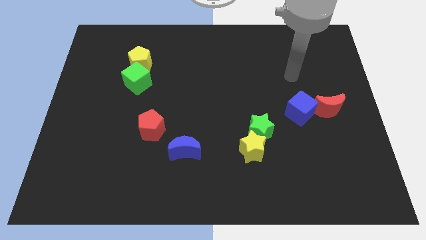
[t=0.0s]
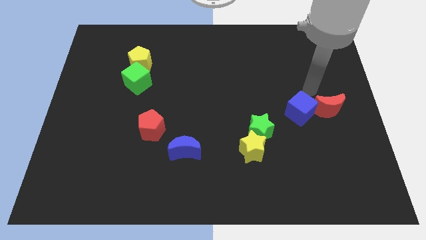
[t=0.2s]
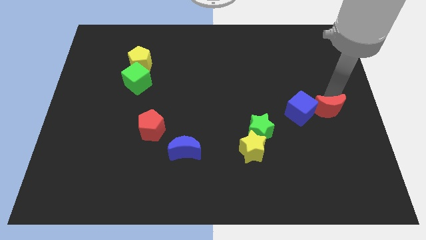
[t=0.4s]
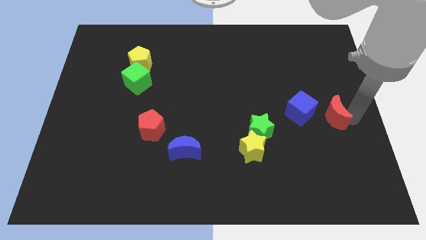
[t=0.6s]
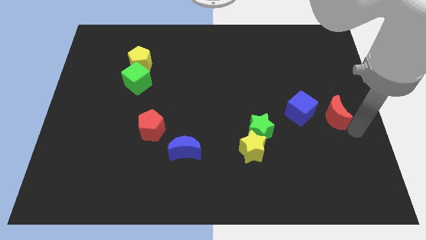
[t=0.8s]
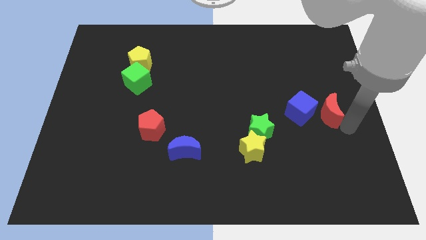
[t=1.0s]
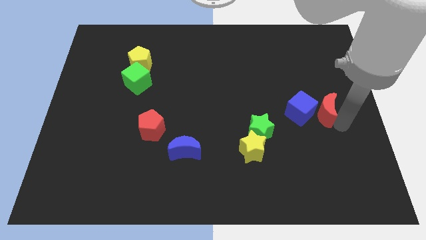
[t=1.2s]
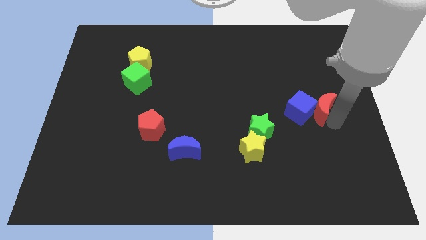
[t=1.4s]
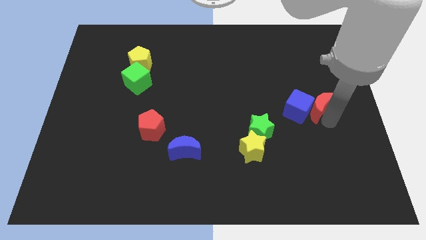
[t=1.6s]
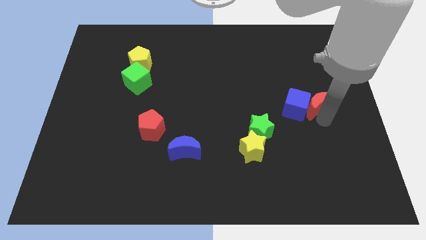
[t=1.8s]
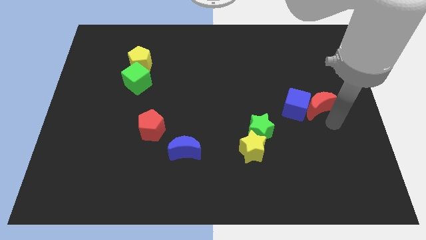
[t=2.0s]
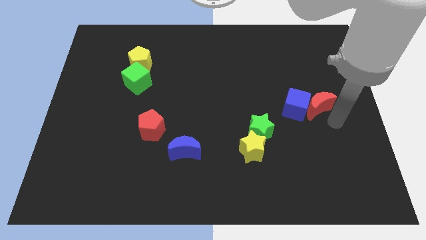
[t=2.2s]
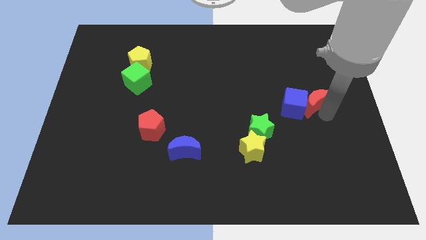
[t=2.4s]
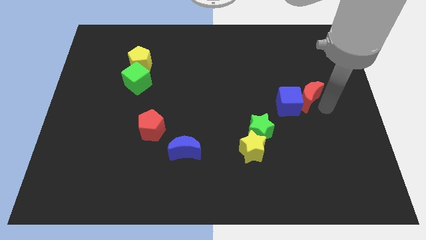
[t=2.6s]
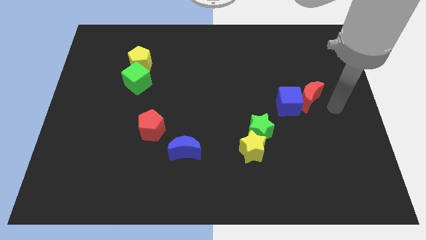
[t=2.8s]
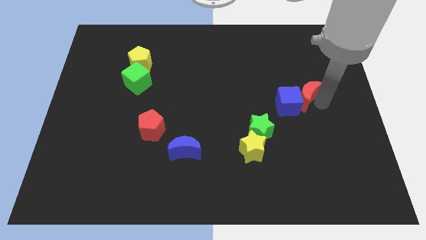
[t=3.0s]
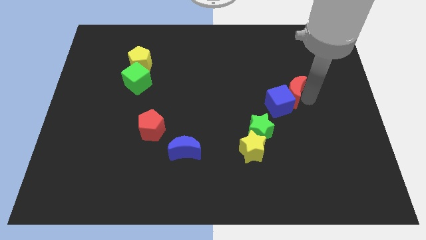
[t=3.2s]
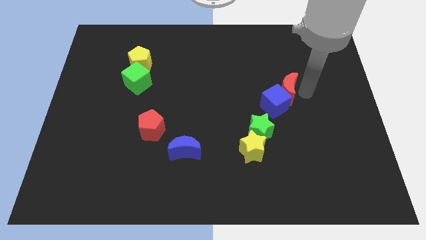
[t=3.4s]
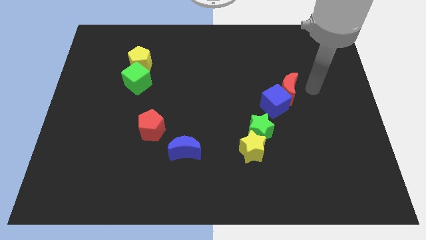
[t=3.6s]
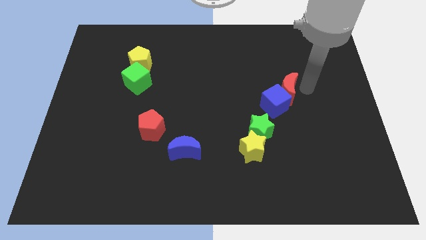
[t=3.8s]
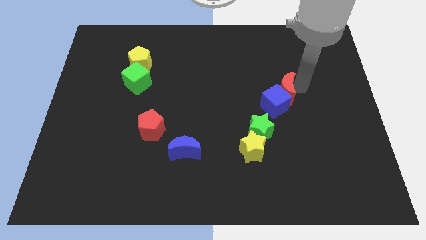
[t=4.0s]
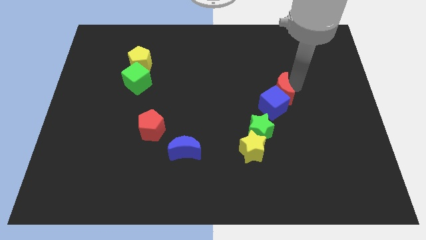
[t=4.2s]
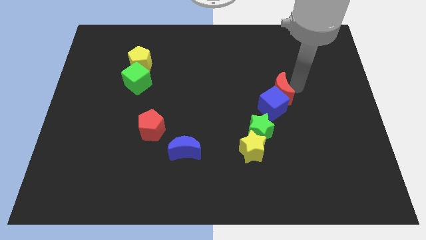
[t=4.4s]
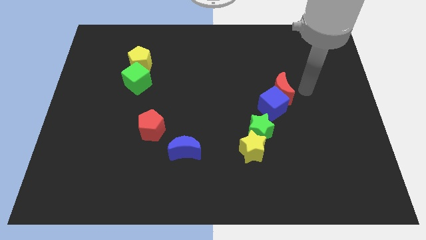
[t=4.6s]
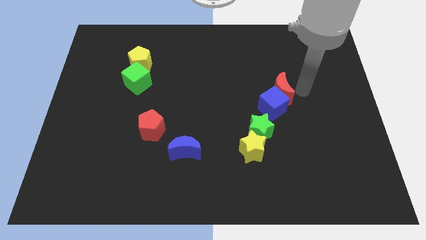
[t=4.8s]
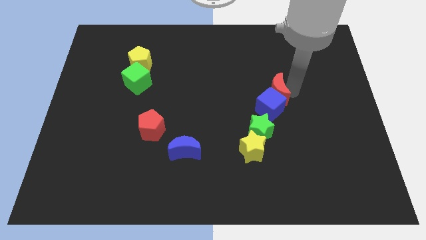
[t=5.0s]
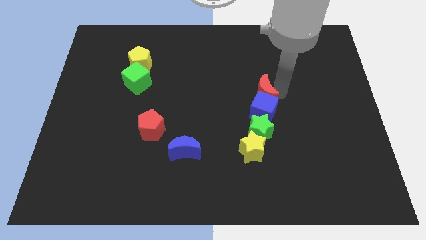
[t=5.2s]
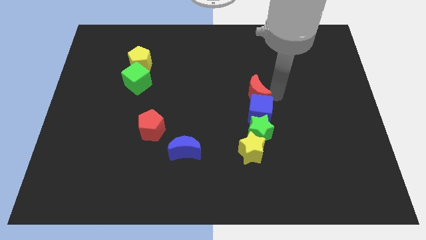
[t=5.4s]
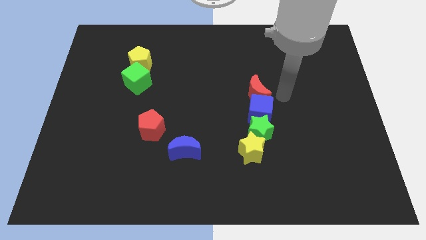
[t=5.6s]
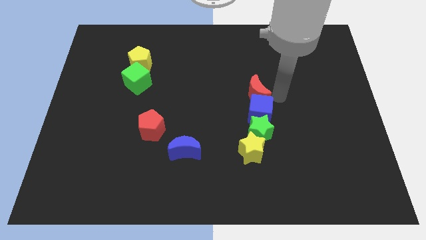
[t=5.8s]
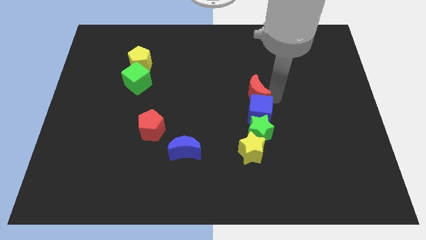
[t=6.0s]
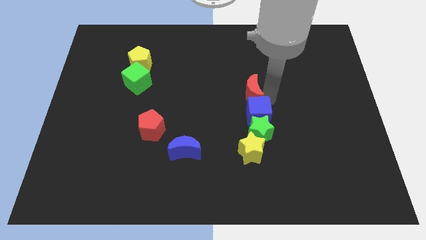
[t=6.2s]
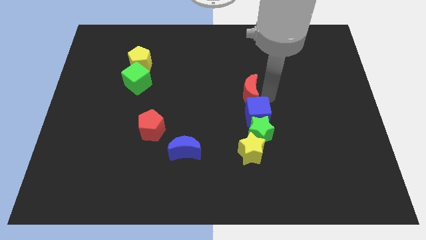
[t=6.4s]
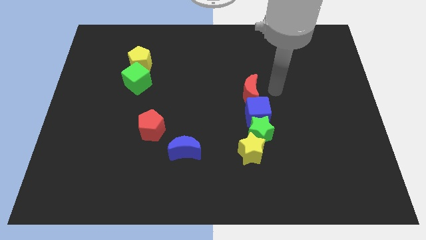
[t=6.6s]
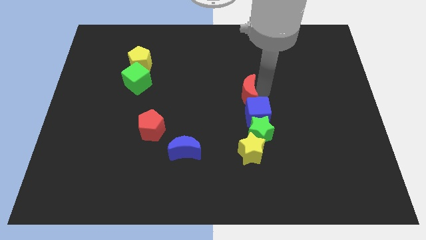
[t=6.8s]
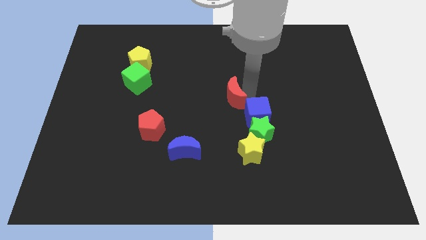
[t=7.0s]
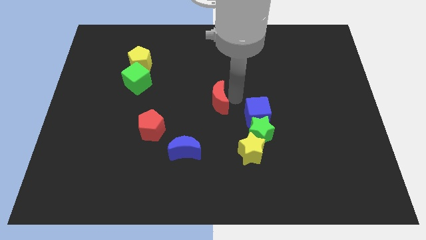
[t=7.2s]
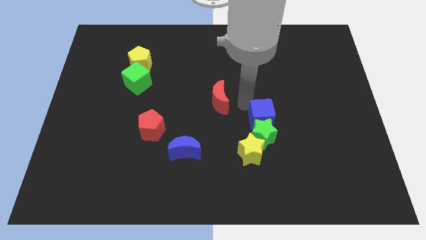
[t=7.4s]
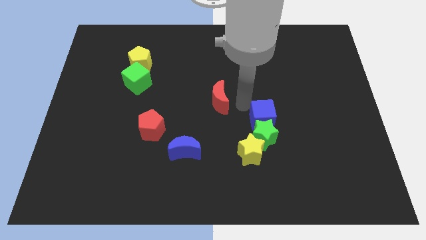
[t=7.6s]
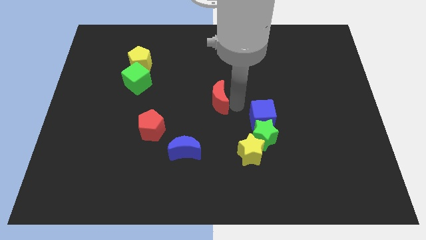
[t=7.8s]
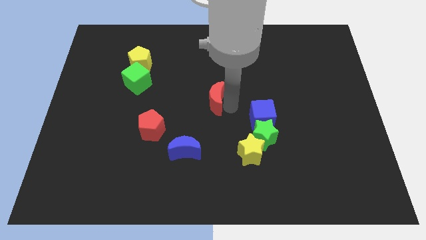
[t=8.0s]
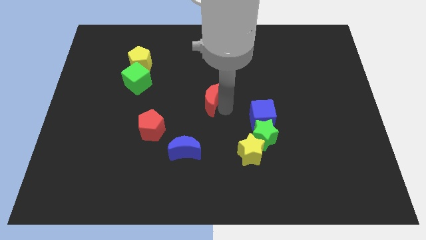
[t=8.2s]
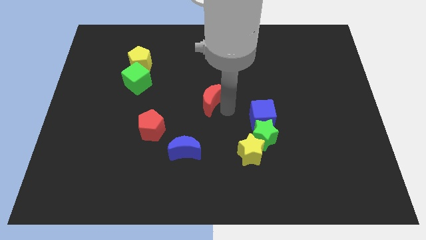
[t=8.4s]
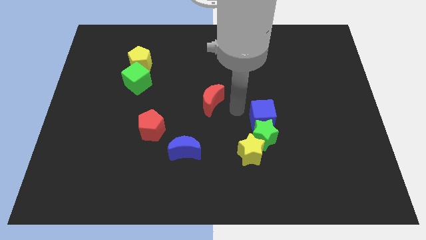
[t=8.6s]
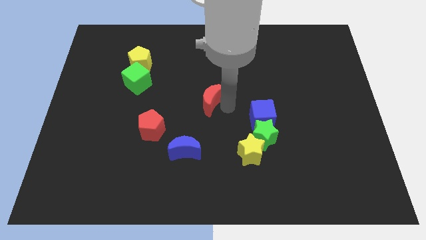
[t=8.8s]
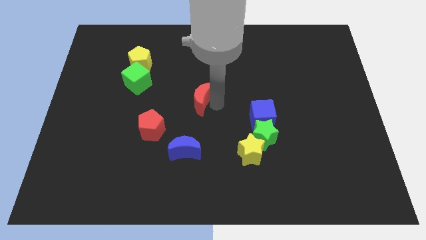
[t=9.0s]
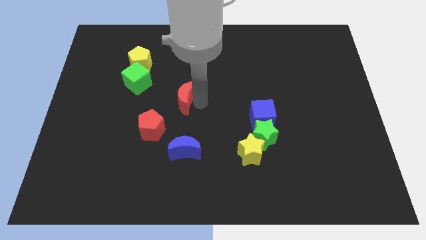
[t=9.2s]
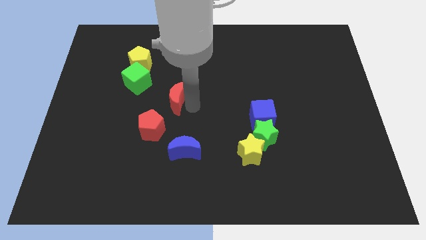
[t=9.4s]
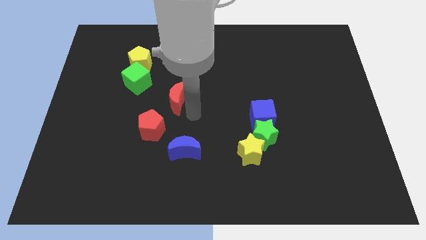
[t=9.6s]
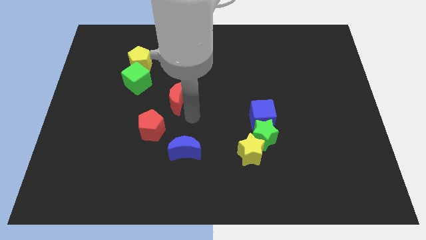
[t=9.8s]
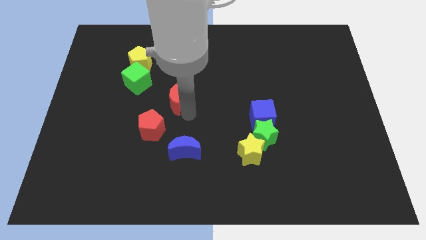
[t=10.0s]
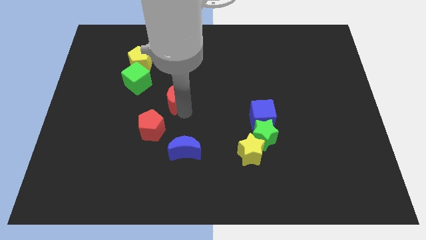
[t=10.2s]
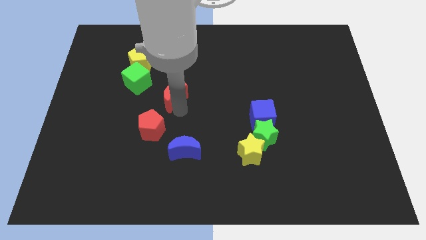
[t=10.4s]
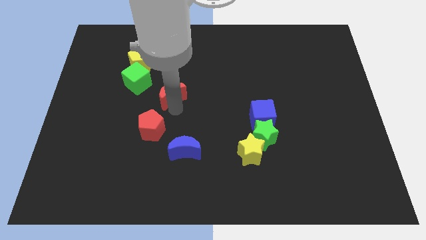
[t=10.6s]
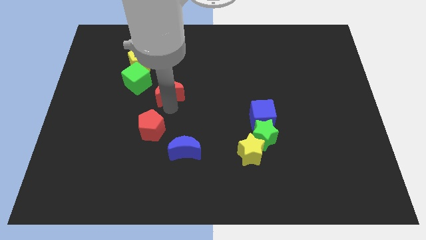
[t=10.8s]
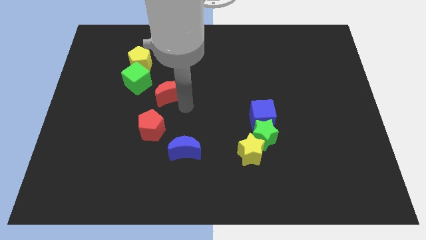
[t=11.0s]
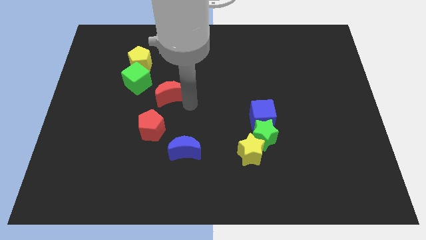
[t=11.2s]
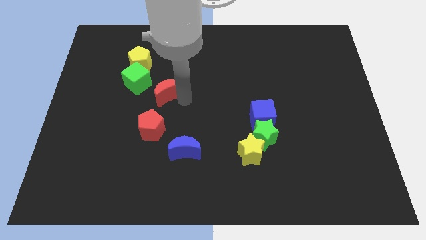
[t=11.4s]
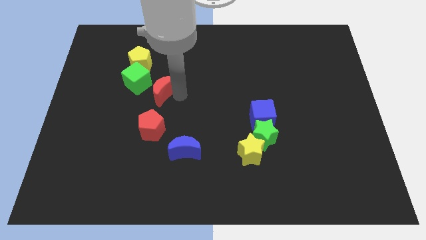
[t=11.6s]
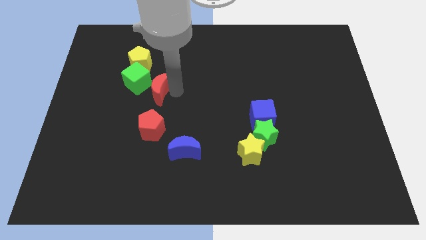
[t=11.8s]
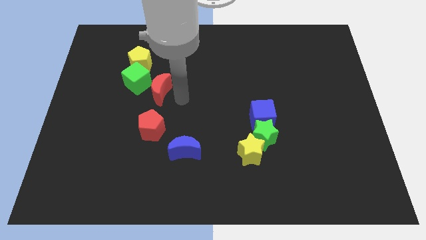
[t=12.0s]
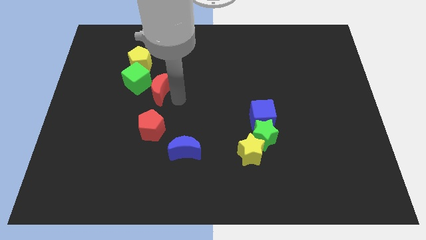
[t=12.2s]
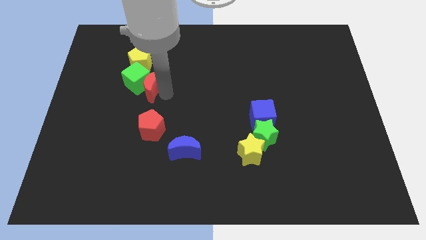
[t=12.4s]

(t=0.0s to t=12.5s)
put the red moon towards the green cube

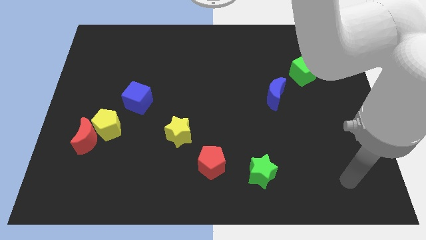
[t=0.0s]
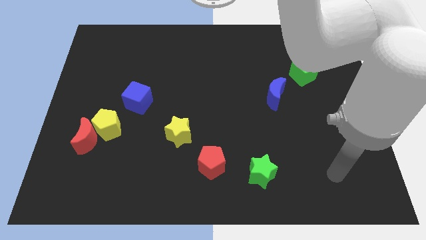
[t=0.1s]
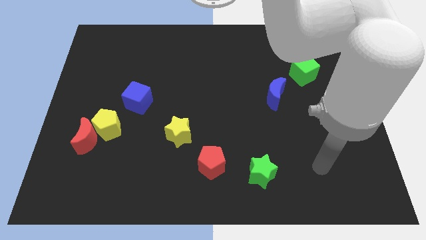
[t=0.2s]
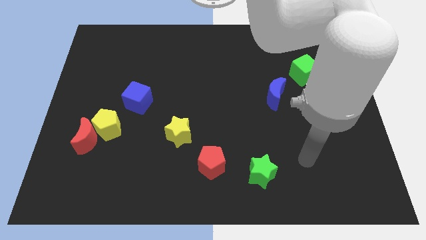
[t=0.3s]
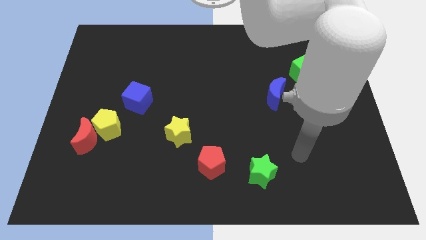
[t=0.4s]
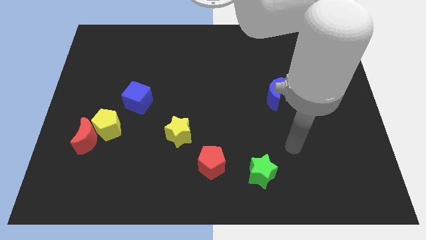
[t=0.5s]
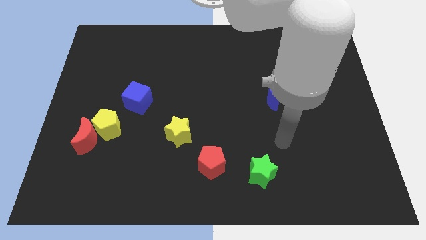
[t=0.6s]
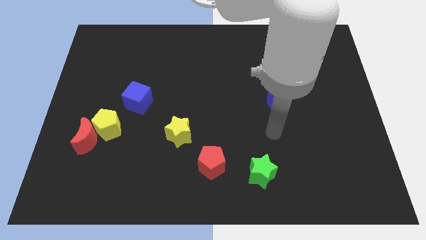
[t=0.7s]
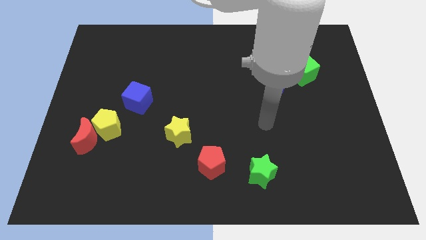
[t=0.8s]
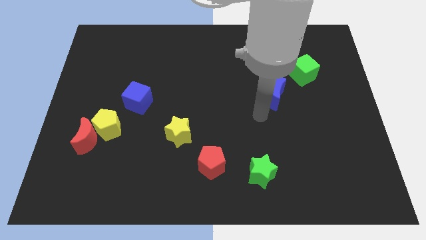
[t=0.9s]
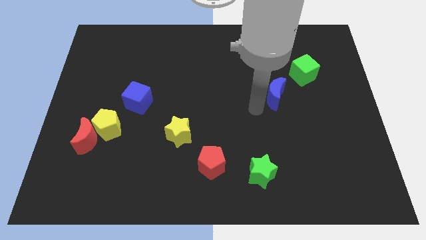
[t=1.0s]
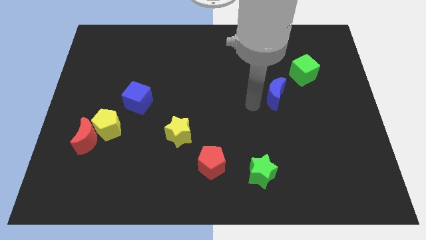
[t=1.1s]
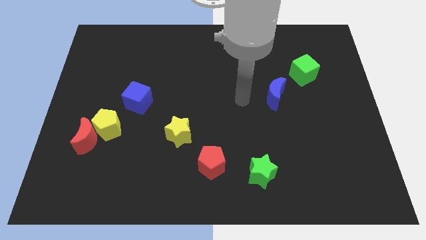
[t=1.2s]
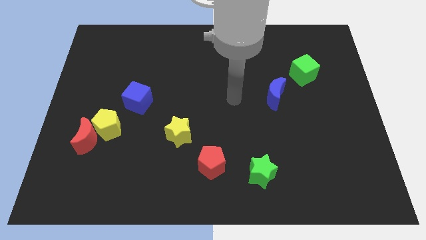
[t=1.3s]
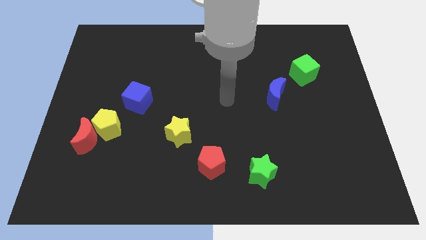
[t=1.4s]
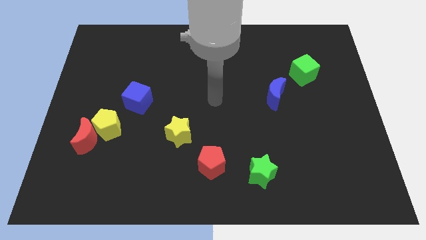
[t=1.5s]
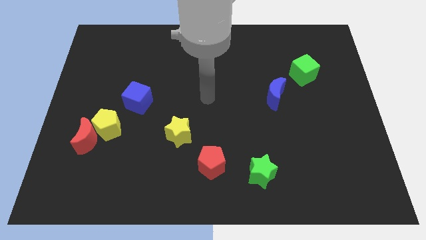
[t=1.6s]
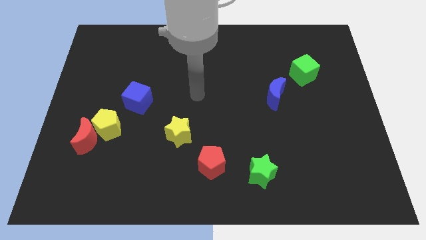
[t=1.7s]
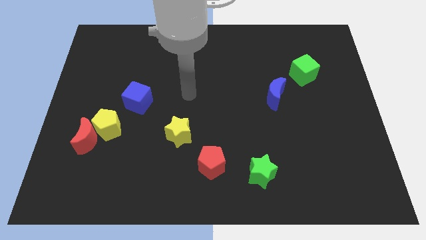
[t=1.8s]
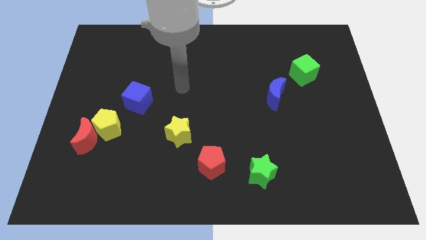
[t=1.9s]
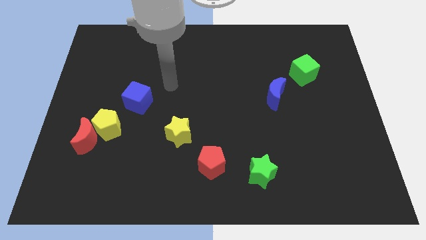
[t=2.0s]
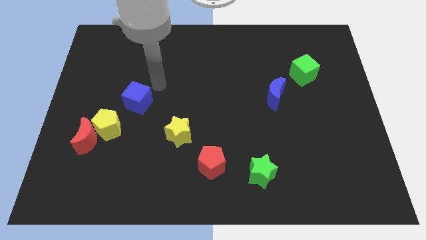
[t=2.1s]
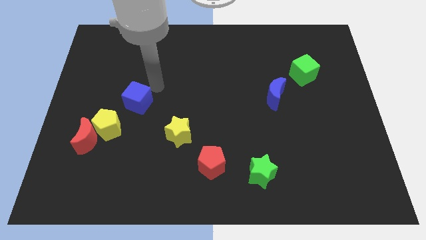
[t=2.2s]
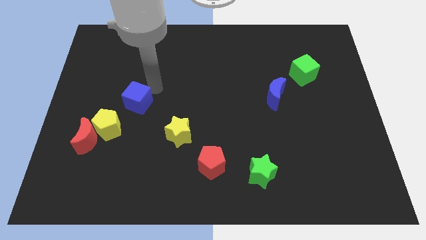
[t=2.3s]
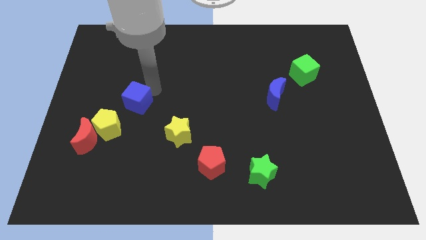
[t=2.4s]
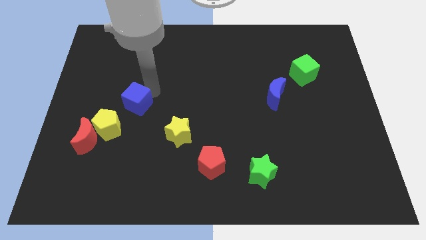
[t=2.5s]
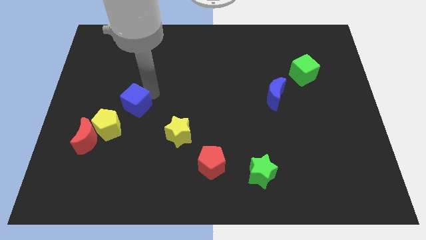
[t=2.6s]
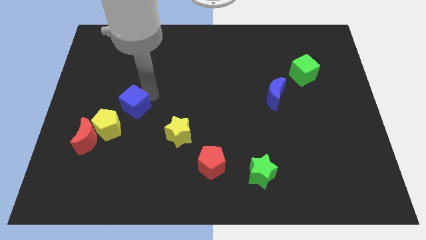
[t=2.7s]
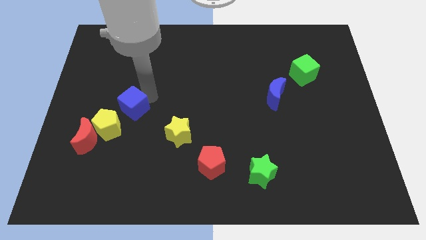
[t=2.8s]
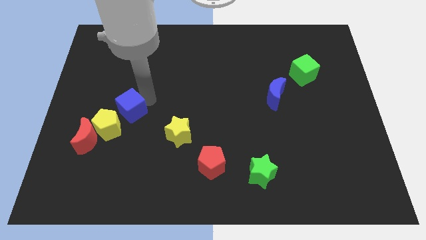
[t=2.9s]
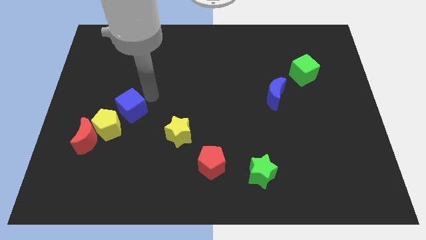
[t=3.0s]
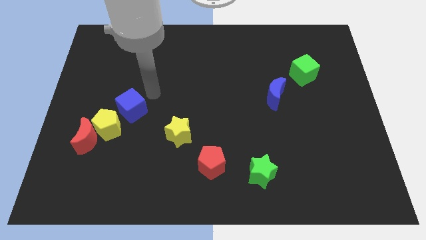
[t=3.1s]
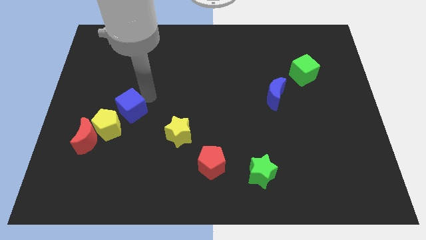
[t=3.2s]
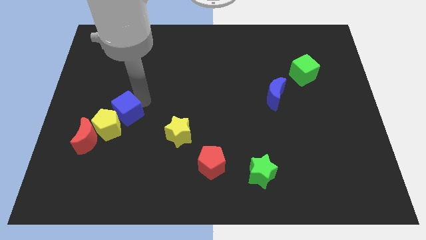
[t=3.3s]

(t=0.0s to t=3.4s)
move the blue cube close to the yellow pentagon
